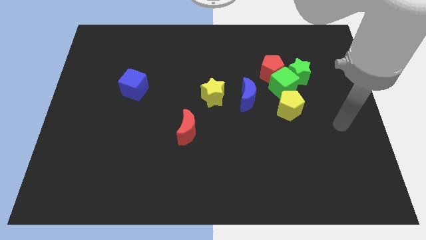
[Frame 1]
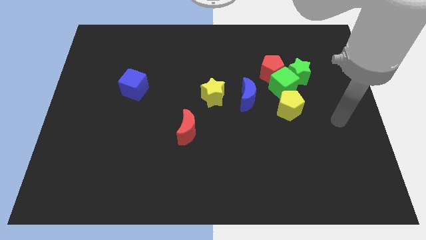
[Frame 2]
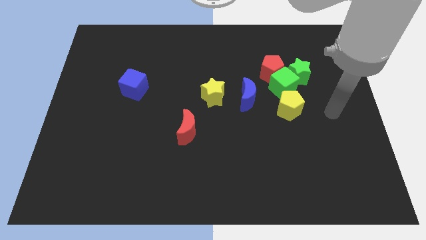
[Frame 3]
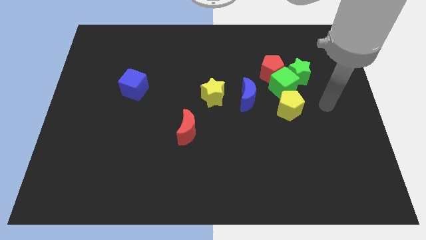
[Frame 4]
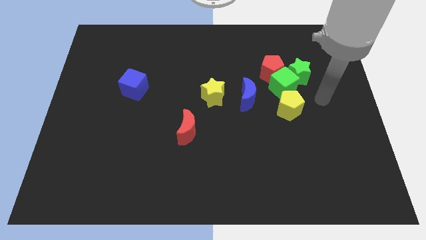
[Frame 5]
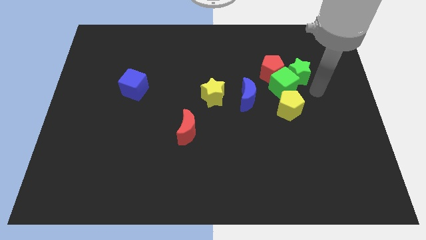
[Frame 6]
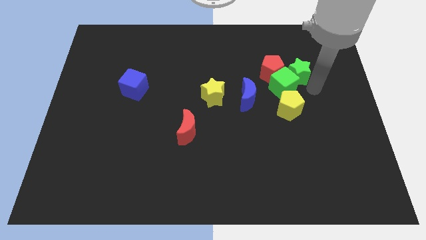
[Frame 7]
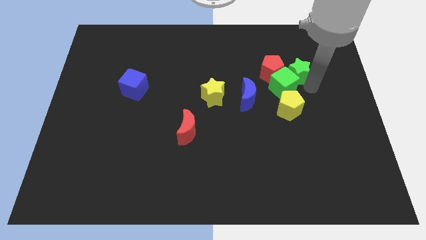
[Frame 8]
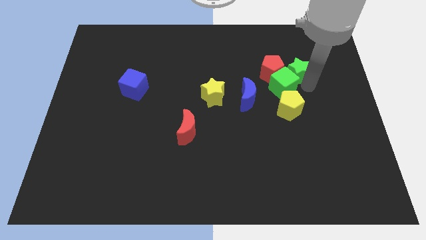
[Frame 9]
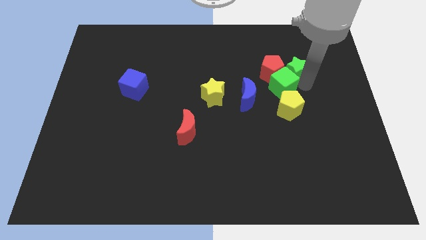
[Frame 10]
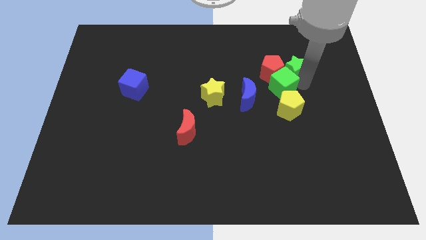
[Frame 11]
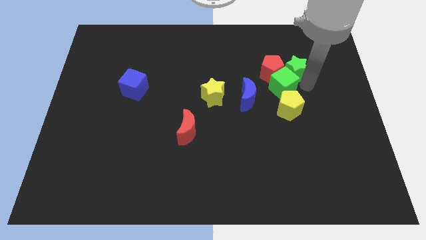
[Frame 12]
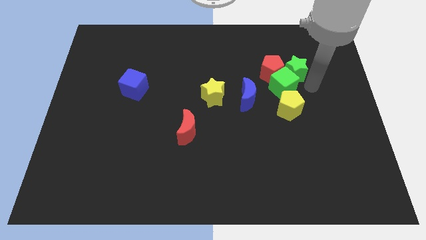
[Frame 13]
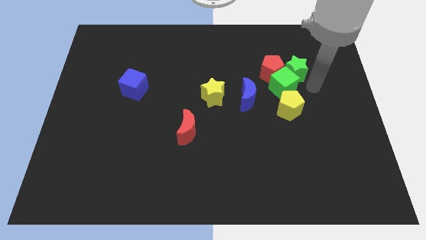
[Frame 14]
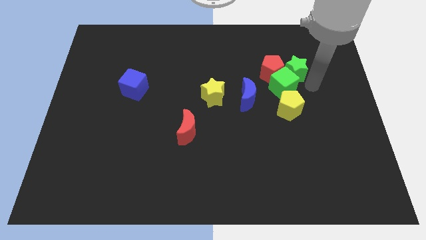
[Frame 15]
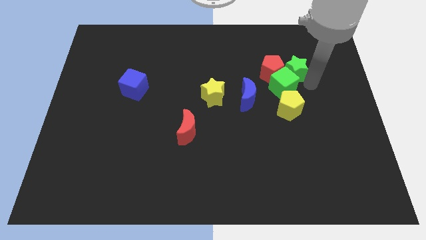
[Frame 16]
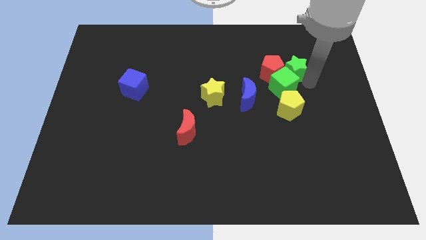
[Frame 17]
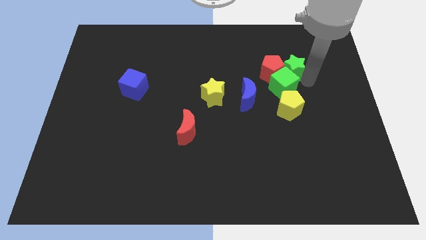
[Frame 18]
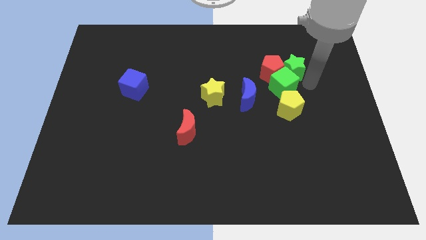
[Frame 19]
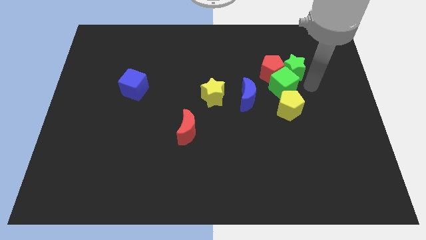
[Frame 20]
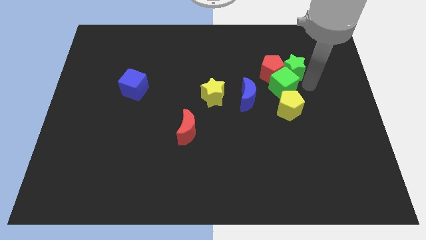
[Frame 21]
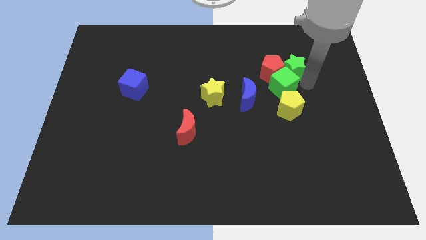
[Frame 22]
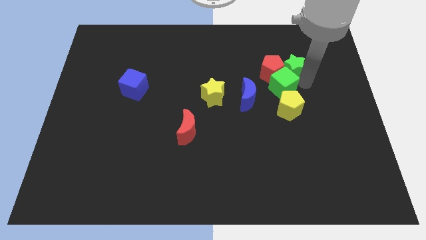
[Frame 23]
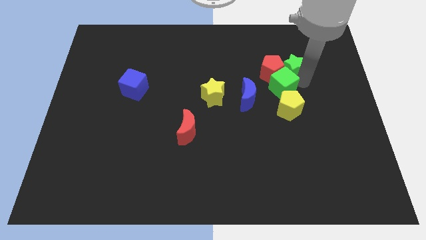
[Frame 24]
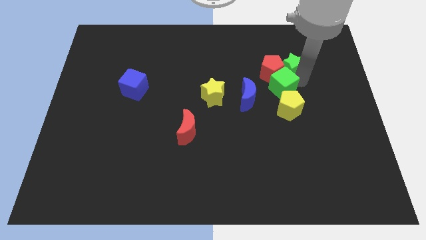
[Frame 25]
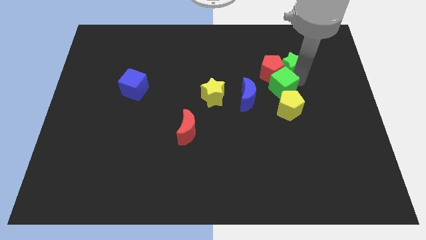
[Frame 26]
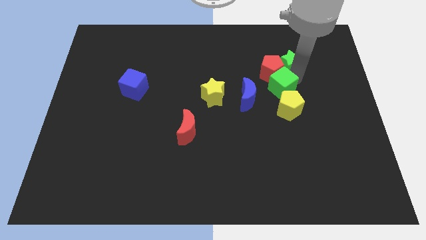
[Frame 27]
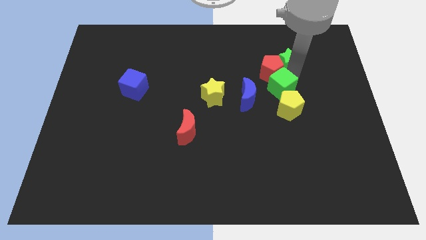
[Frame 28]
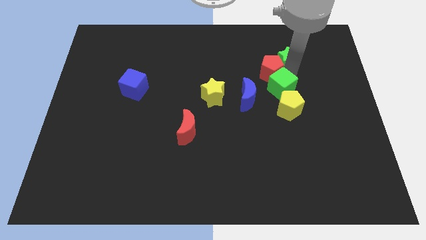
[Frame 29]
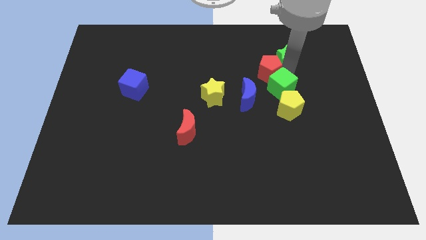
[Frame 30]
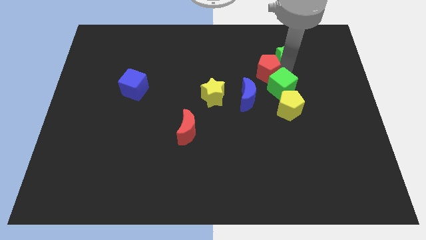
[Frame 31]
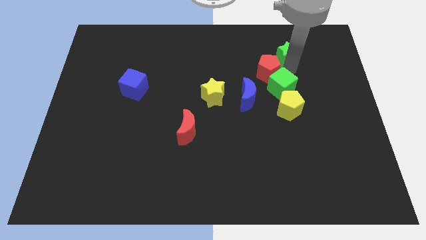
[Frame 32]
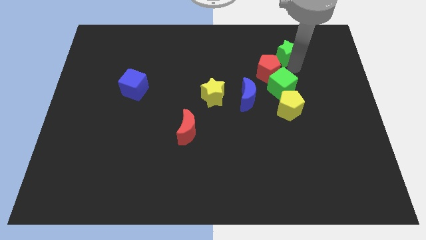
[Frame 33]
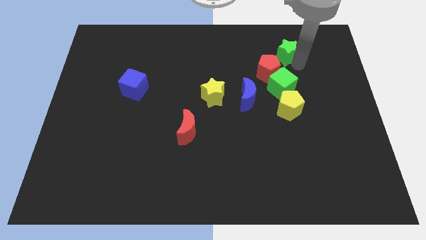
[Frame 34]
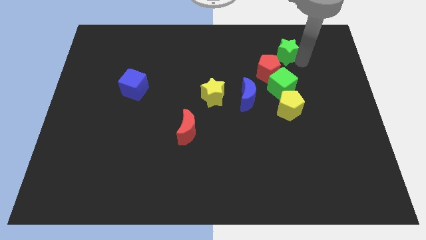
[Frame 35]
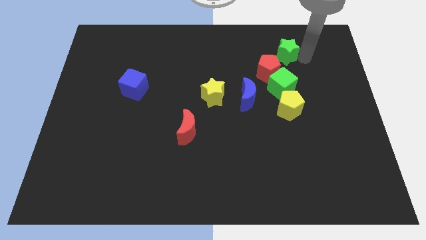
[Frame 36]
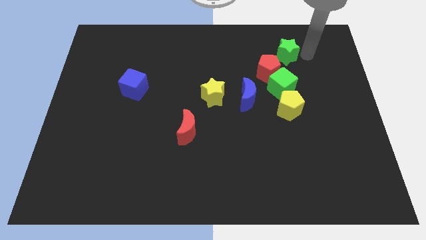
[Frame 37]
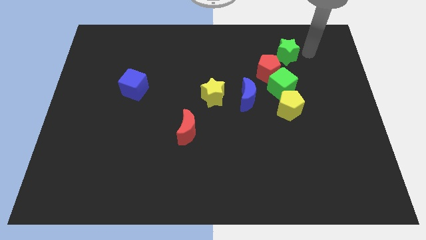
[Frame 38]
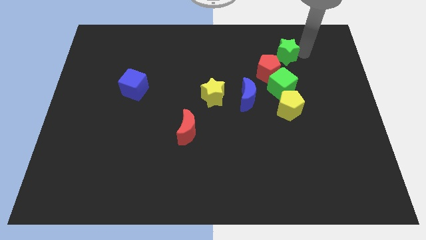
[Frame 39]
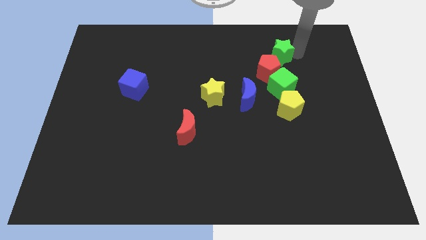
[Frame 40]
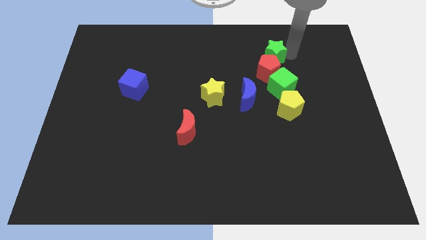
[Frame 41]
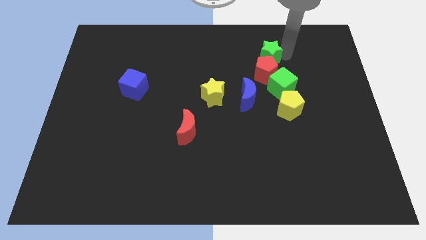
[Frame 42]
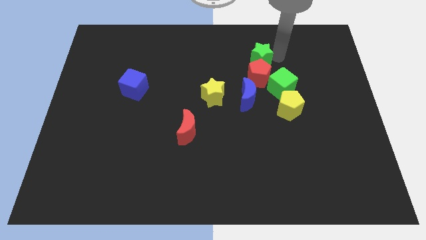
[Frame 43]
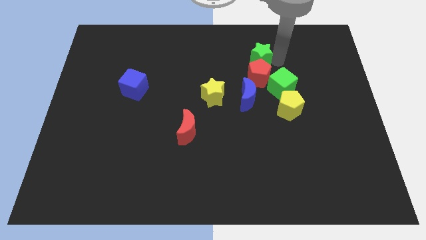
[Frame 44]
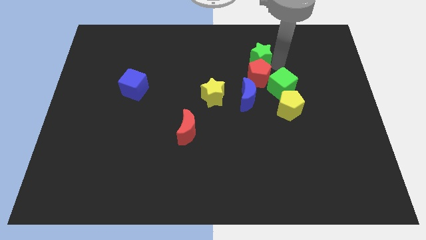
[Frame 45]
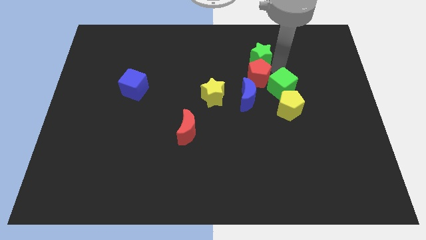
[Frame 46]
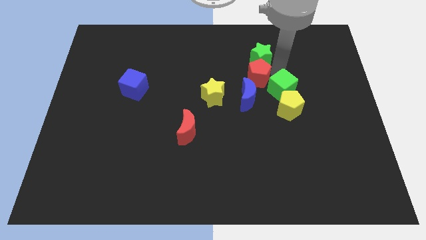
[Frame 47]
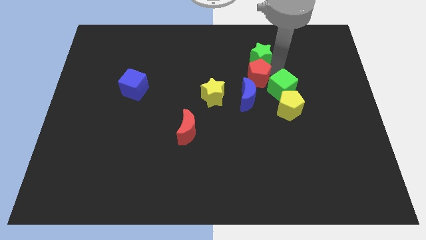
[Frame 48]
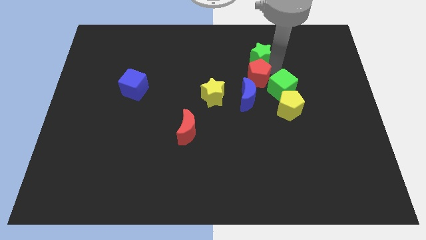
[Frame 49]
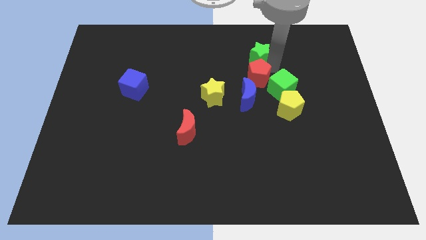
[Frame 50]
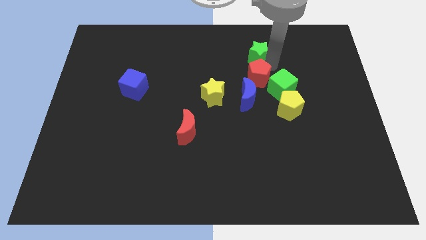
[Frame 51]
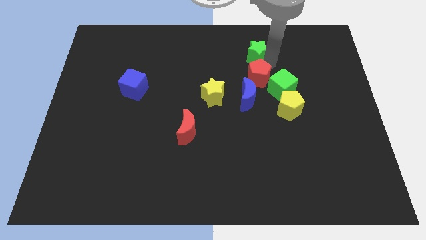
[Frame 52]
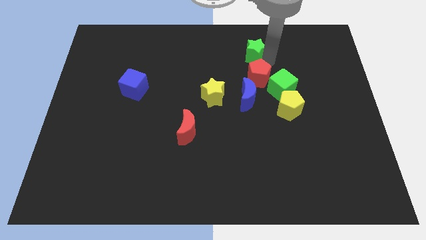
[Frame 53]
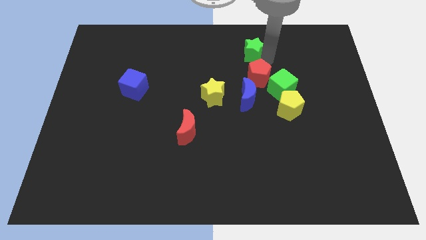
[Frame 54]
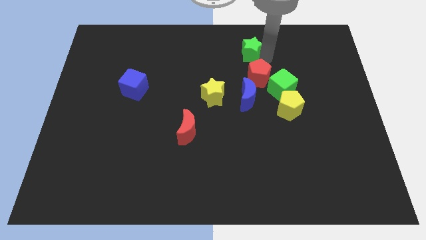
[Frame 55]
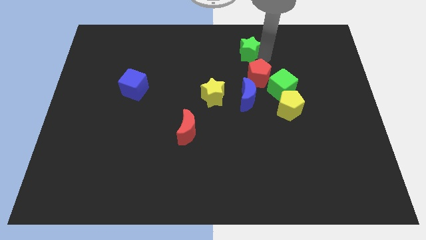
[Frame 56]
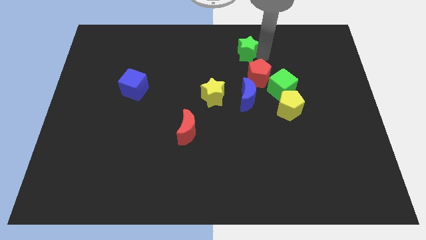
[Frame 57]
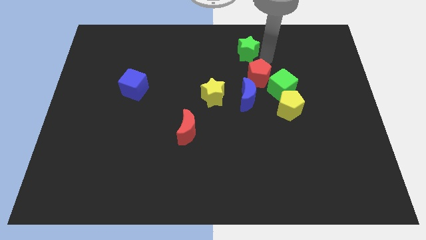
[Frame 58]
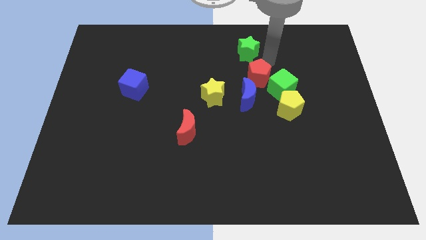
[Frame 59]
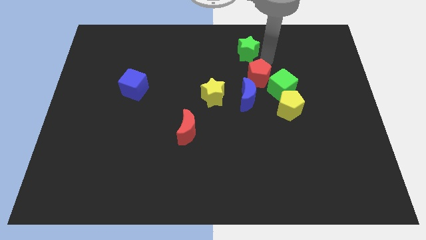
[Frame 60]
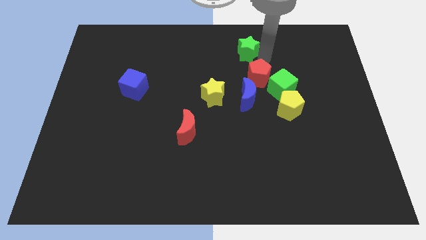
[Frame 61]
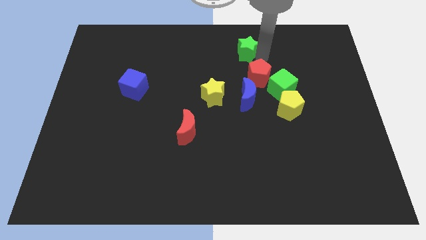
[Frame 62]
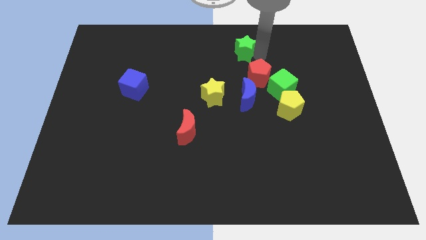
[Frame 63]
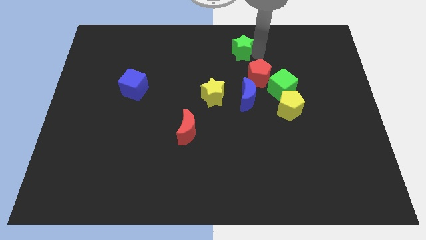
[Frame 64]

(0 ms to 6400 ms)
move the green star to the top

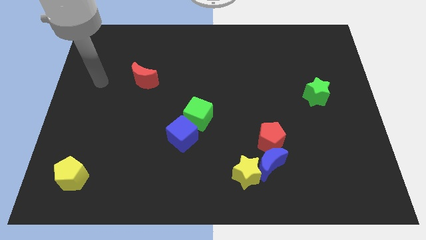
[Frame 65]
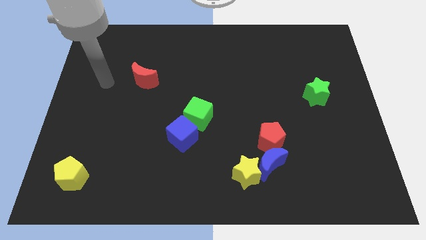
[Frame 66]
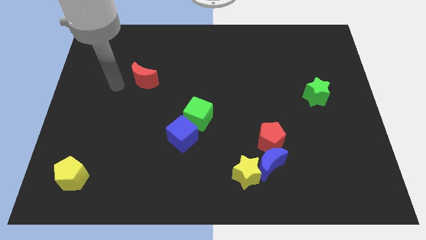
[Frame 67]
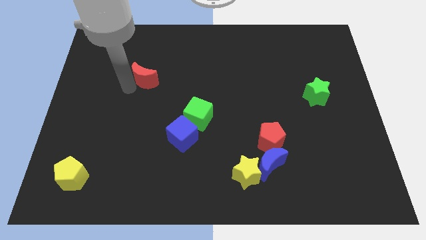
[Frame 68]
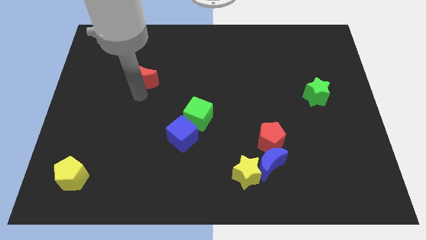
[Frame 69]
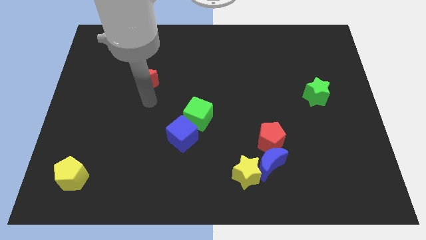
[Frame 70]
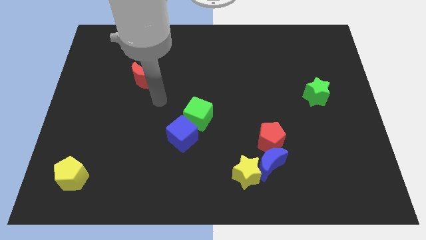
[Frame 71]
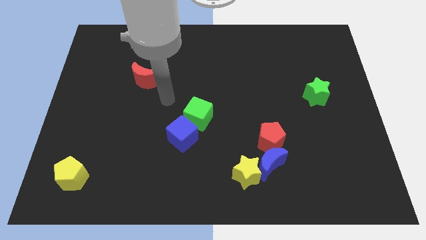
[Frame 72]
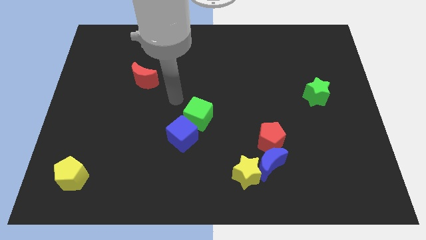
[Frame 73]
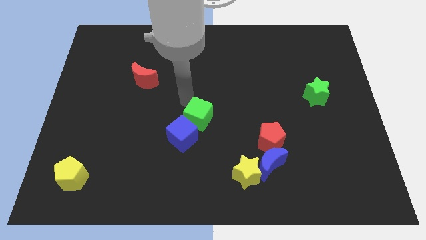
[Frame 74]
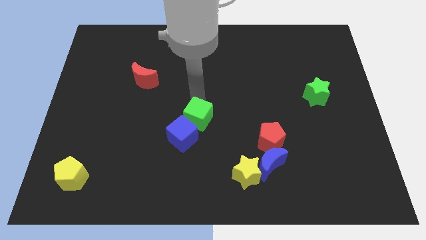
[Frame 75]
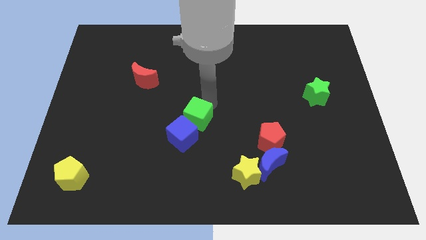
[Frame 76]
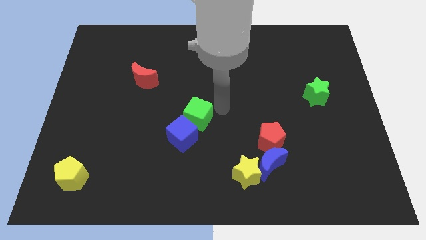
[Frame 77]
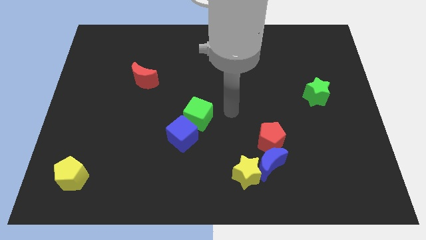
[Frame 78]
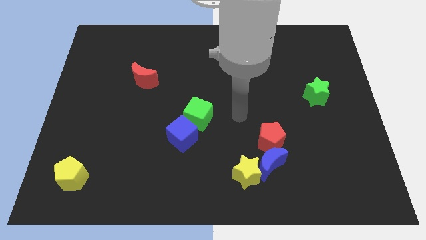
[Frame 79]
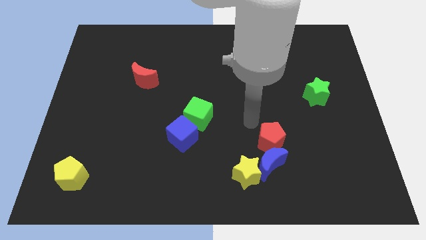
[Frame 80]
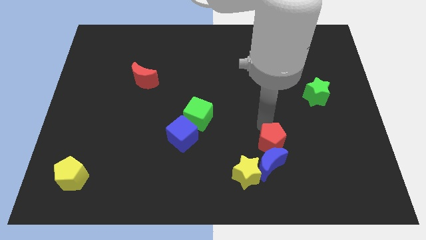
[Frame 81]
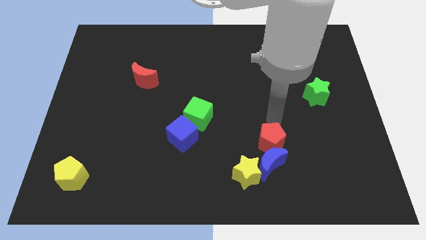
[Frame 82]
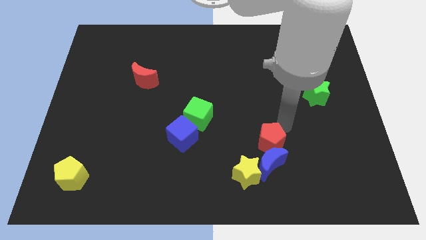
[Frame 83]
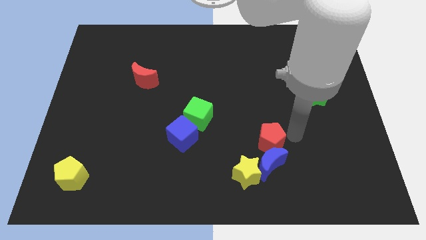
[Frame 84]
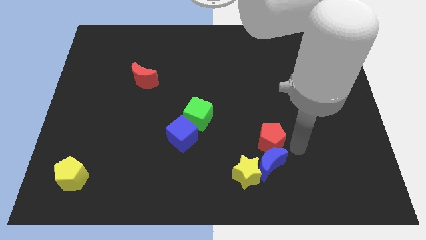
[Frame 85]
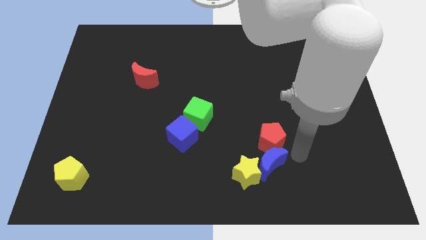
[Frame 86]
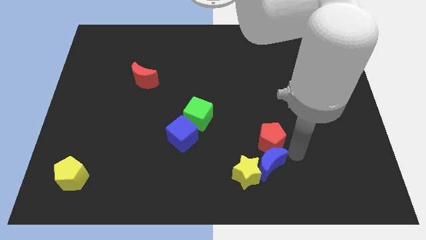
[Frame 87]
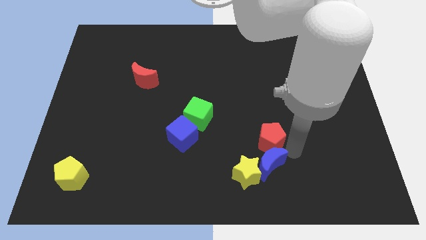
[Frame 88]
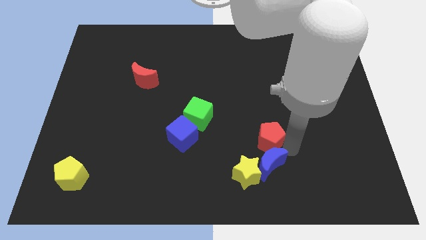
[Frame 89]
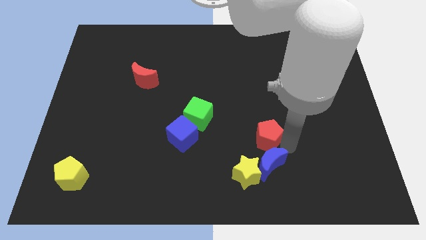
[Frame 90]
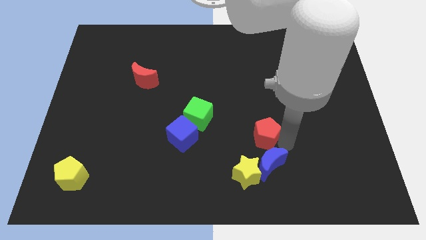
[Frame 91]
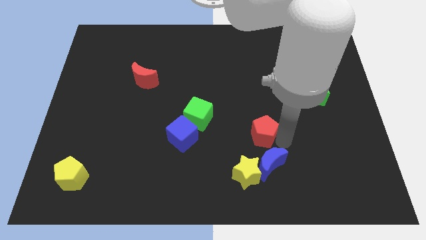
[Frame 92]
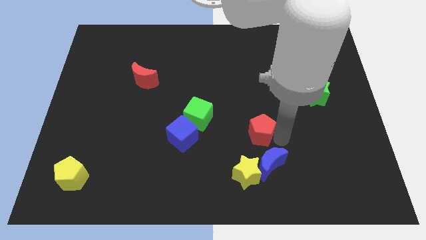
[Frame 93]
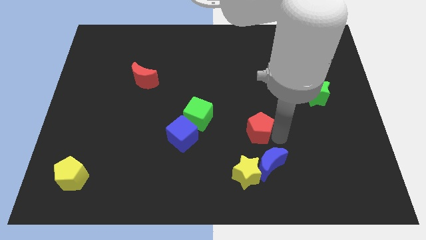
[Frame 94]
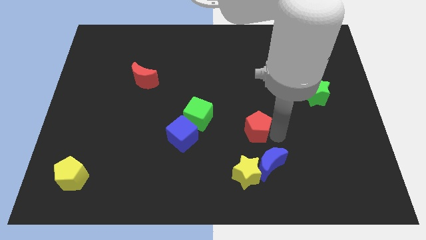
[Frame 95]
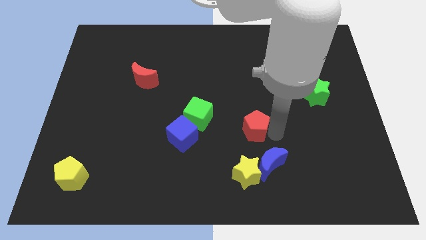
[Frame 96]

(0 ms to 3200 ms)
push the red pentagon to the center
